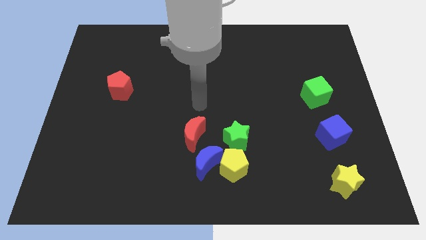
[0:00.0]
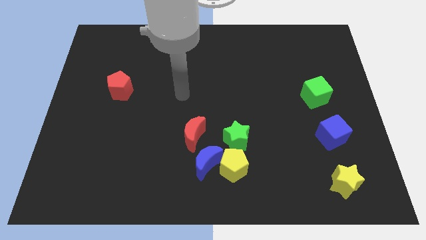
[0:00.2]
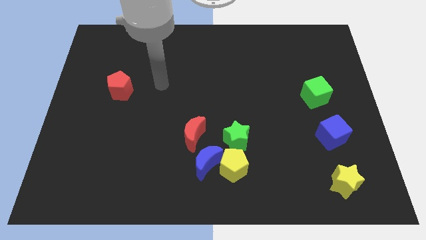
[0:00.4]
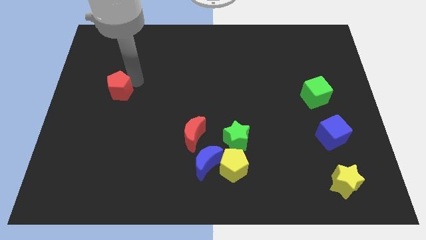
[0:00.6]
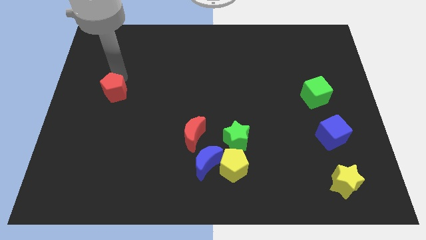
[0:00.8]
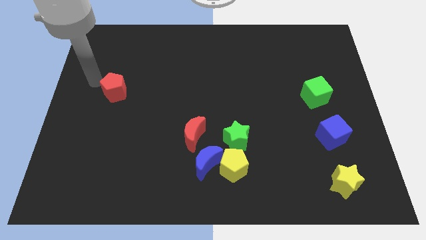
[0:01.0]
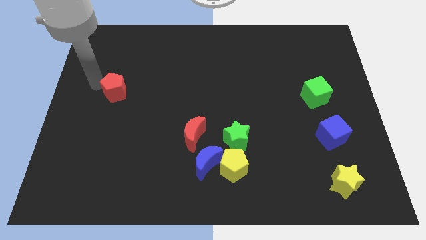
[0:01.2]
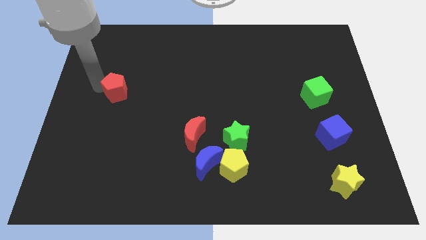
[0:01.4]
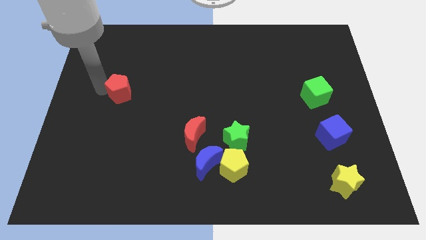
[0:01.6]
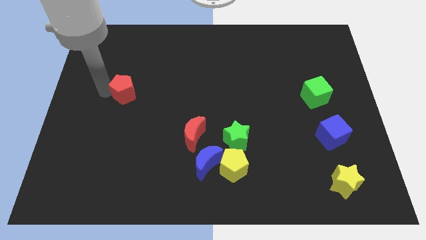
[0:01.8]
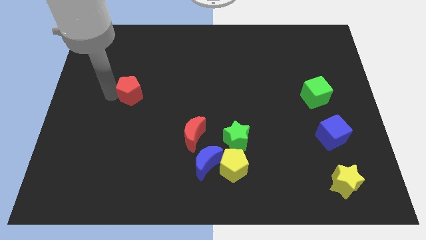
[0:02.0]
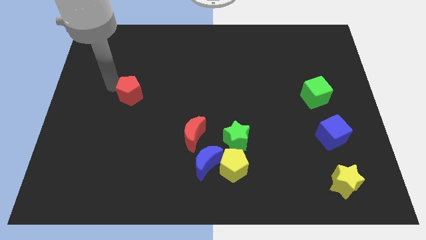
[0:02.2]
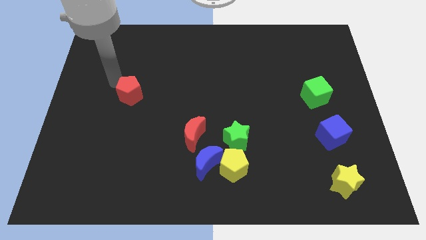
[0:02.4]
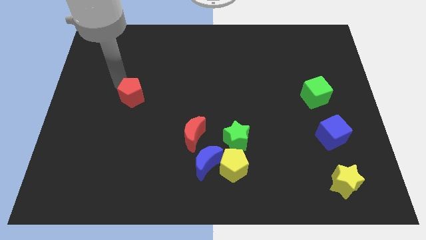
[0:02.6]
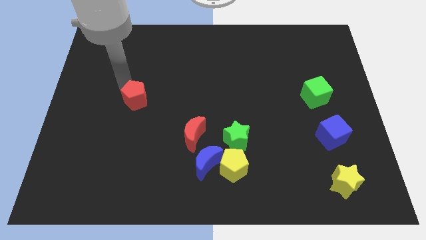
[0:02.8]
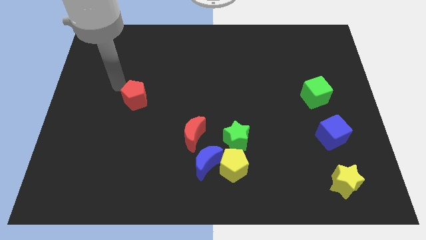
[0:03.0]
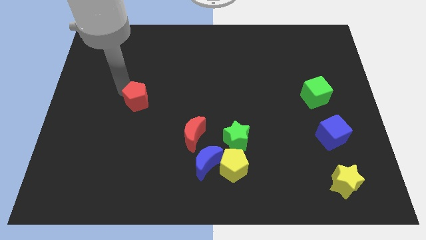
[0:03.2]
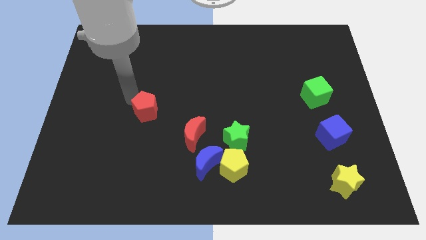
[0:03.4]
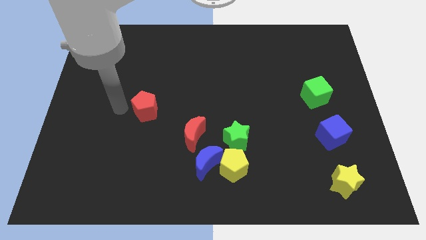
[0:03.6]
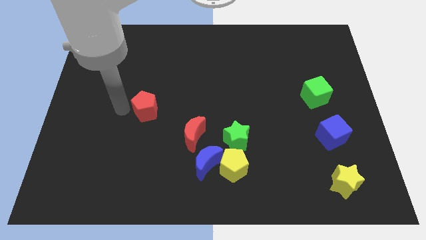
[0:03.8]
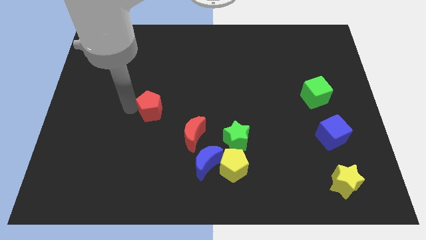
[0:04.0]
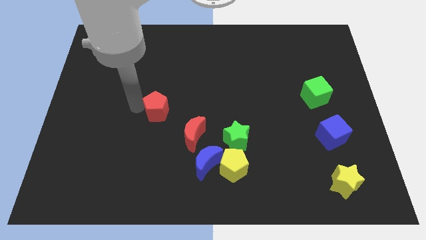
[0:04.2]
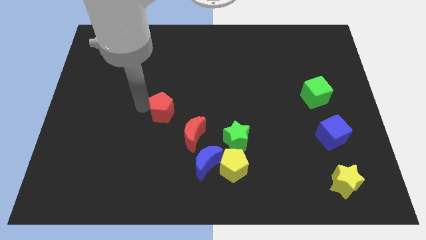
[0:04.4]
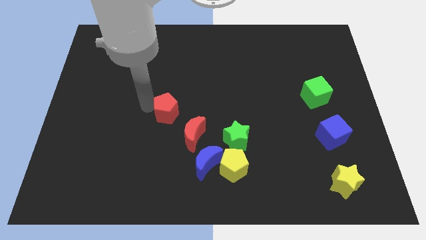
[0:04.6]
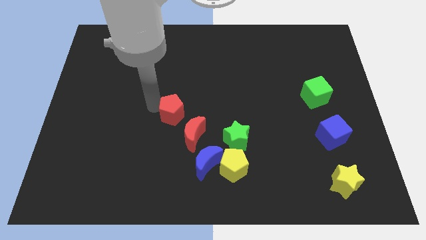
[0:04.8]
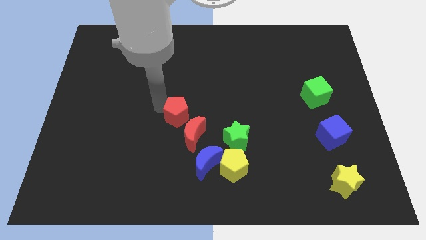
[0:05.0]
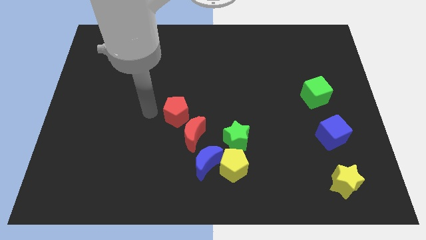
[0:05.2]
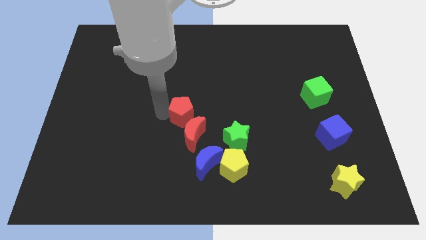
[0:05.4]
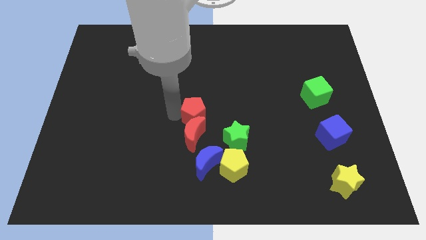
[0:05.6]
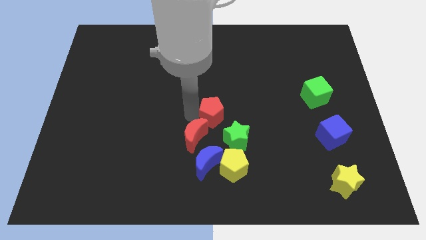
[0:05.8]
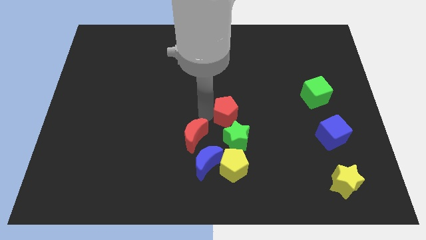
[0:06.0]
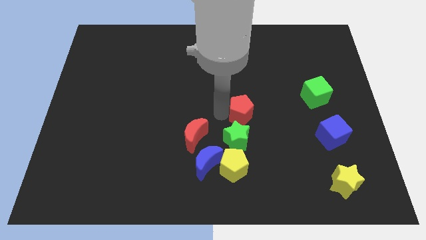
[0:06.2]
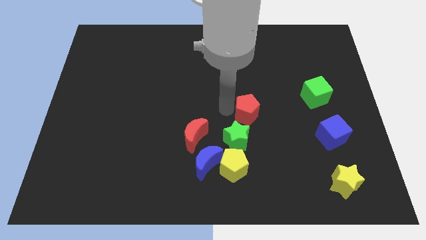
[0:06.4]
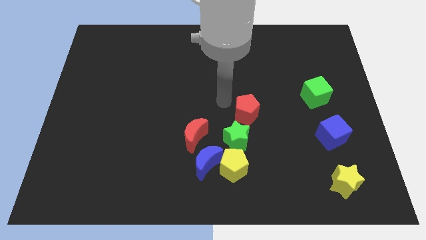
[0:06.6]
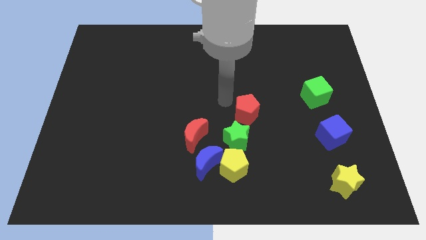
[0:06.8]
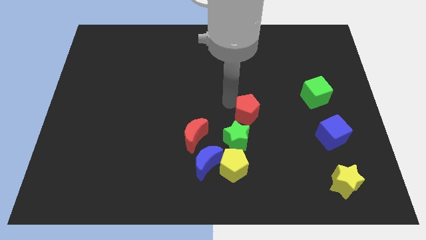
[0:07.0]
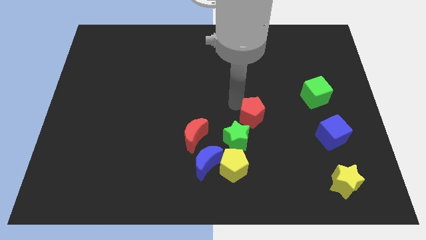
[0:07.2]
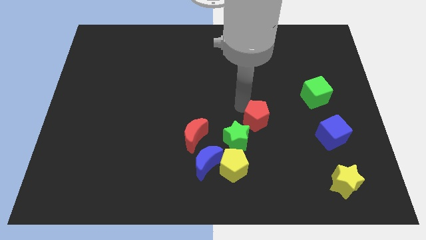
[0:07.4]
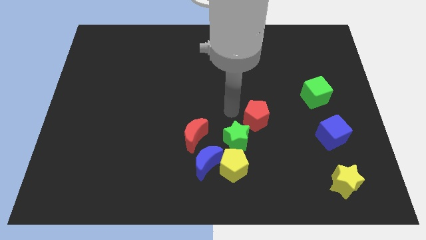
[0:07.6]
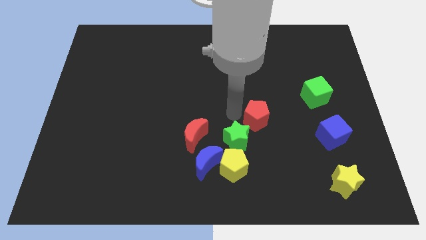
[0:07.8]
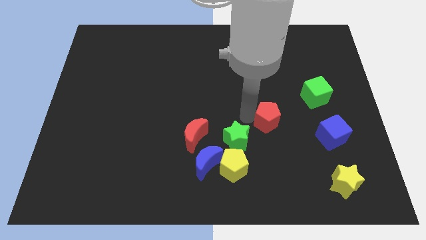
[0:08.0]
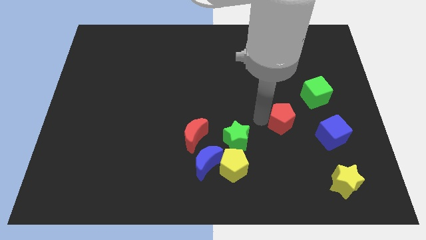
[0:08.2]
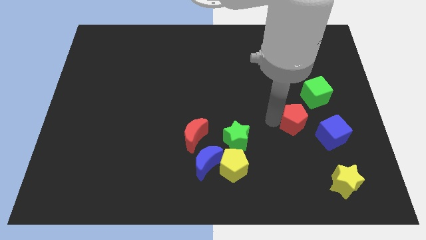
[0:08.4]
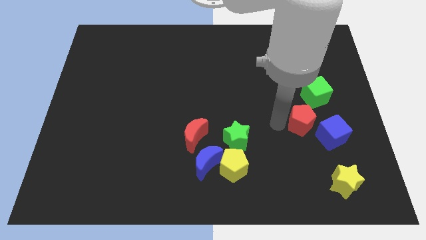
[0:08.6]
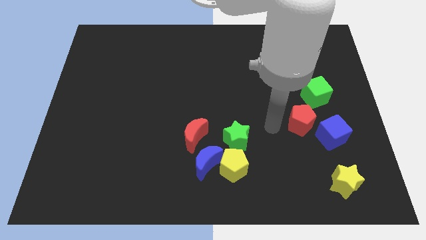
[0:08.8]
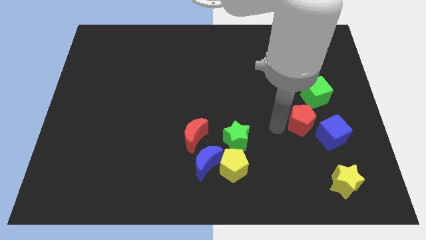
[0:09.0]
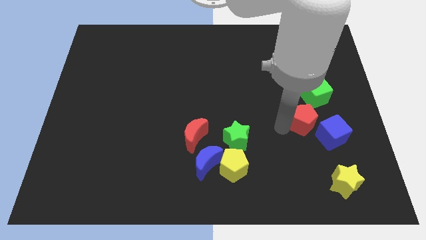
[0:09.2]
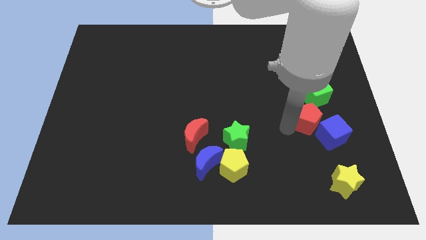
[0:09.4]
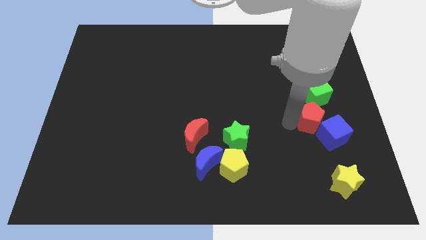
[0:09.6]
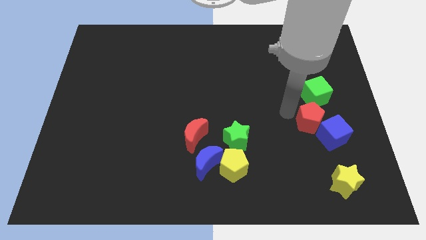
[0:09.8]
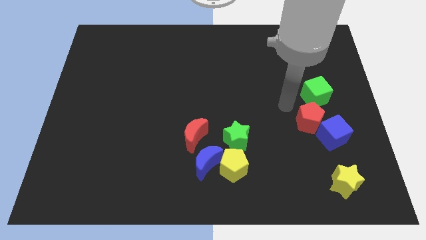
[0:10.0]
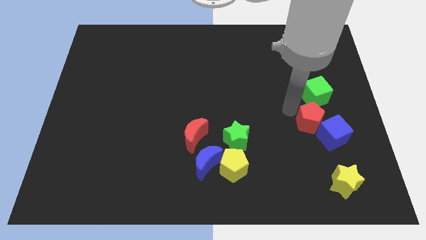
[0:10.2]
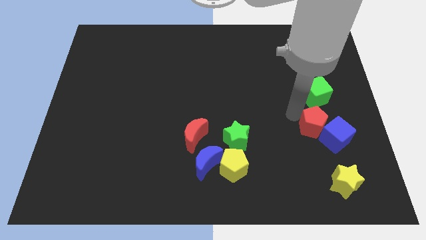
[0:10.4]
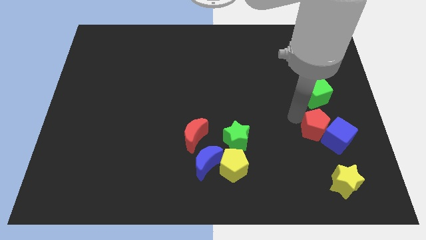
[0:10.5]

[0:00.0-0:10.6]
put the red pentagon to the top side of the yellow star

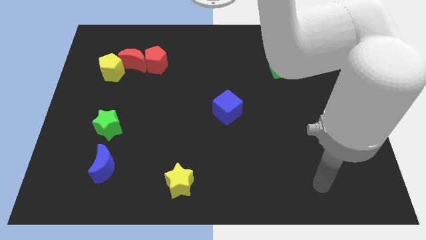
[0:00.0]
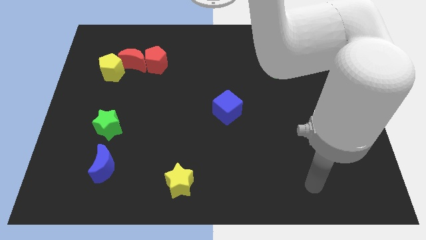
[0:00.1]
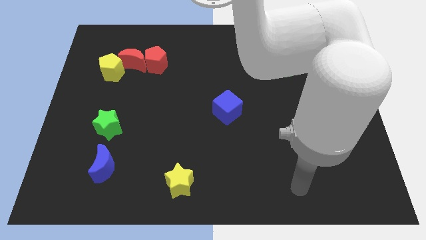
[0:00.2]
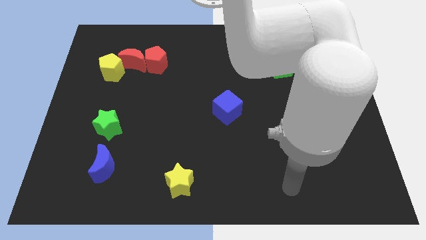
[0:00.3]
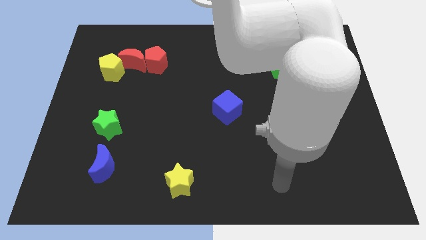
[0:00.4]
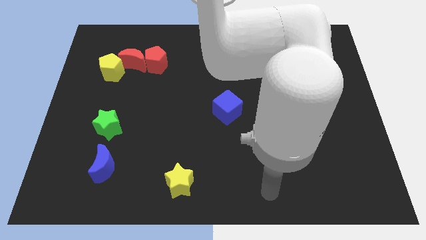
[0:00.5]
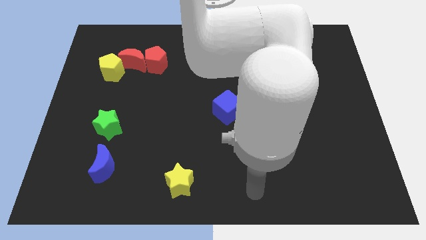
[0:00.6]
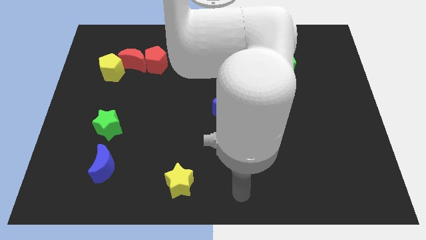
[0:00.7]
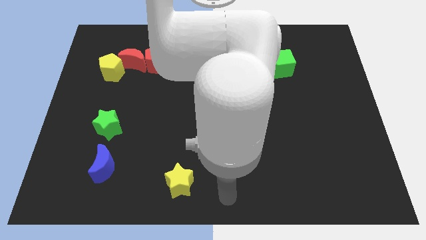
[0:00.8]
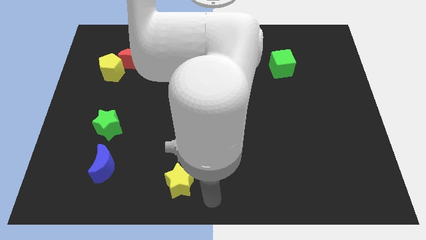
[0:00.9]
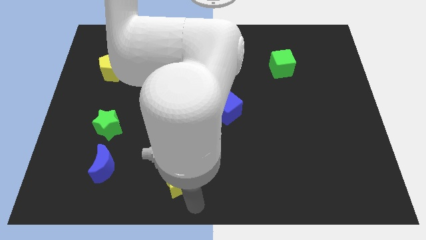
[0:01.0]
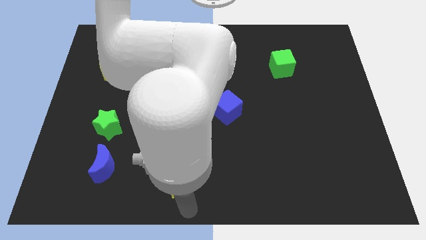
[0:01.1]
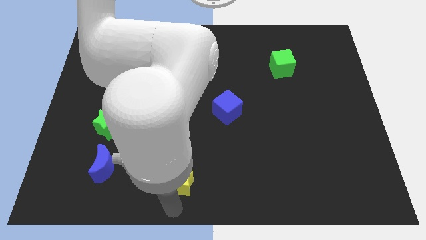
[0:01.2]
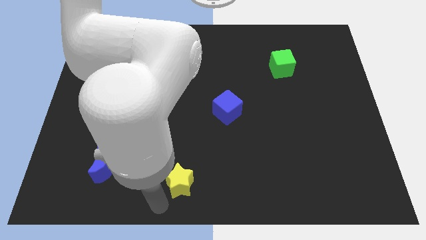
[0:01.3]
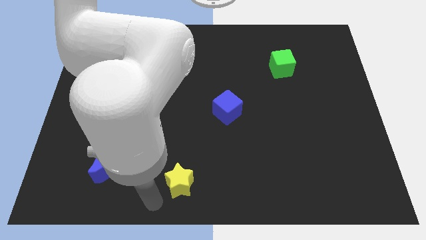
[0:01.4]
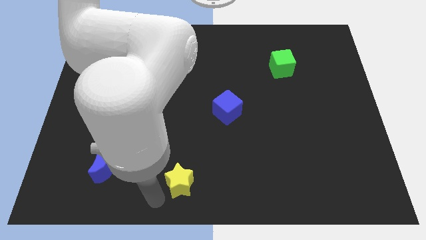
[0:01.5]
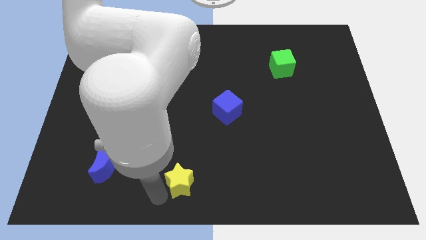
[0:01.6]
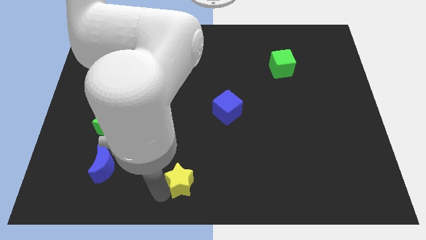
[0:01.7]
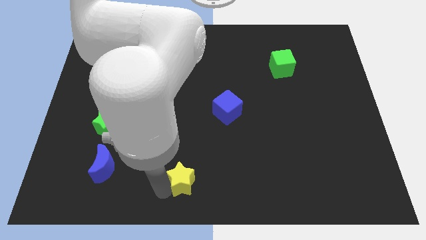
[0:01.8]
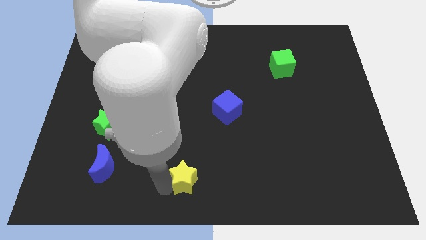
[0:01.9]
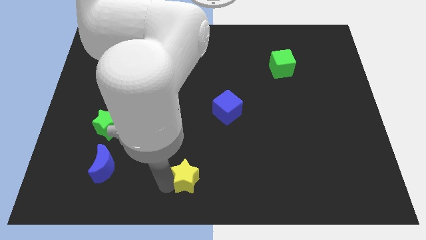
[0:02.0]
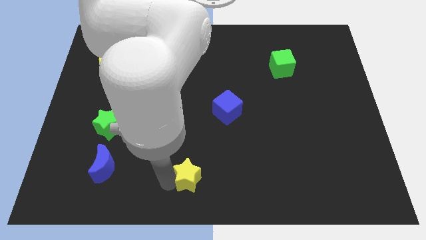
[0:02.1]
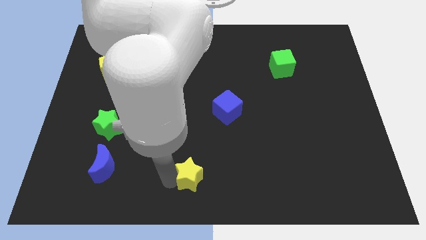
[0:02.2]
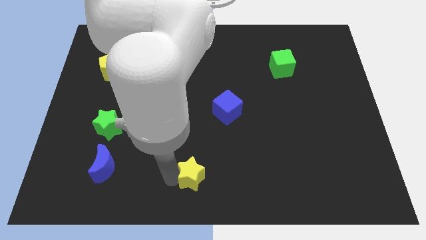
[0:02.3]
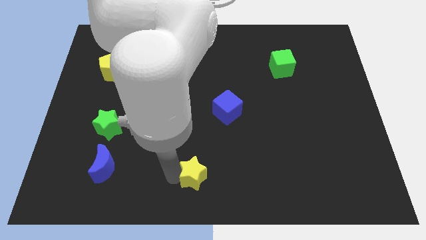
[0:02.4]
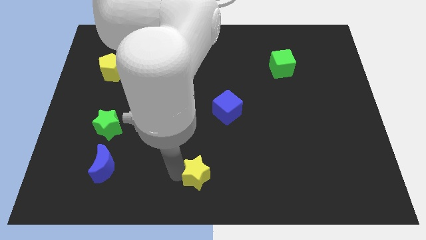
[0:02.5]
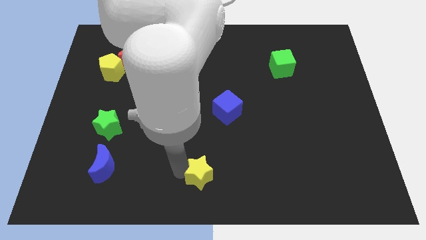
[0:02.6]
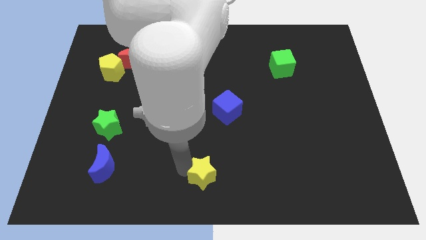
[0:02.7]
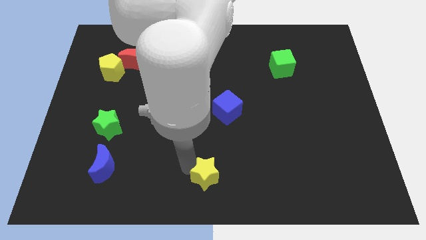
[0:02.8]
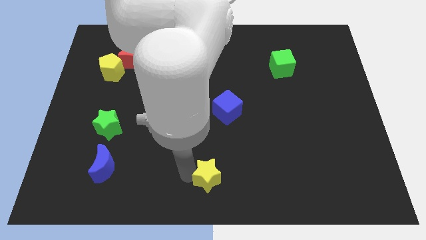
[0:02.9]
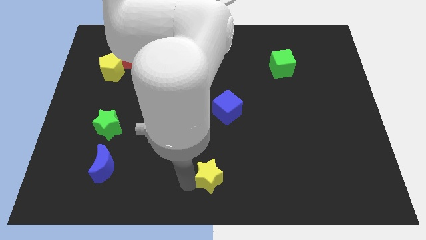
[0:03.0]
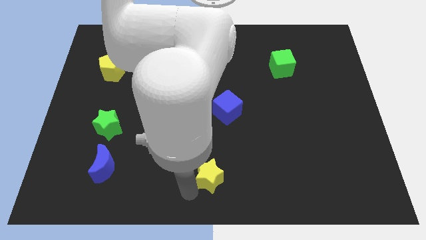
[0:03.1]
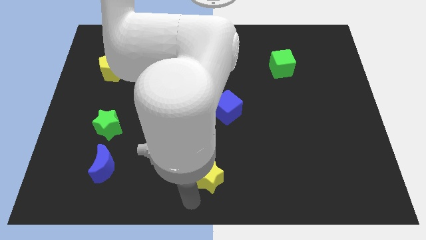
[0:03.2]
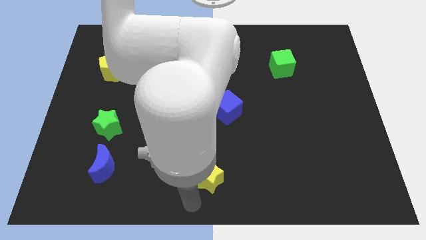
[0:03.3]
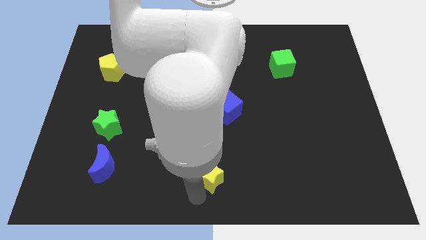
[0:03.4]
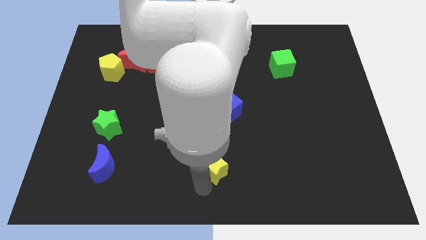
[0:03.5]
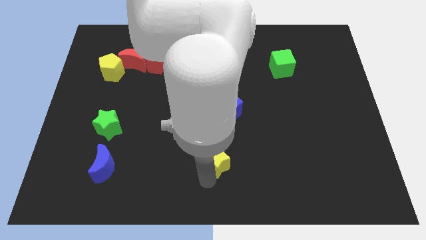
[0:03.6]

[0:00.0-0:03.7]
put the yellow star below the blue cube
